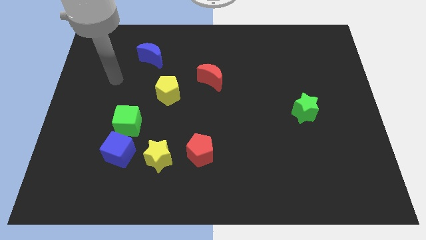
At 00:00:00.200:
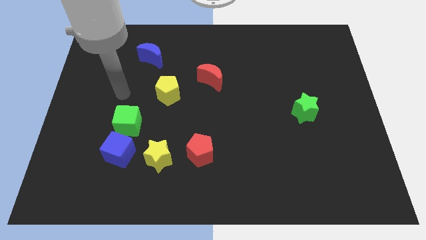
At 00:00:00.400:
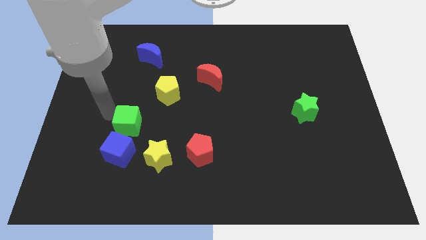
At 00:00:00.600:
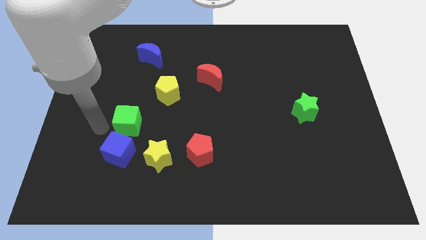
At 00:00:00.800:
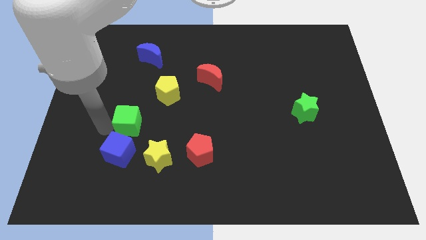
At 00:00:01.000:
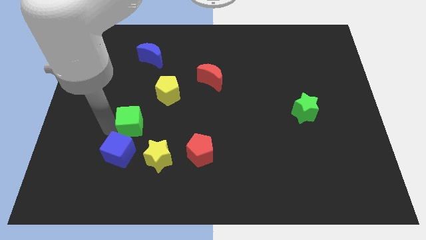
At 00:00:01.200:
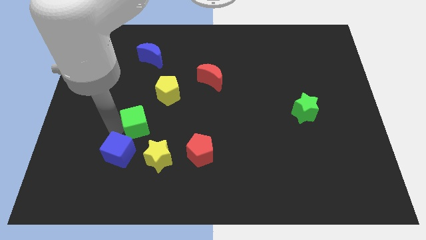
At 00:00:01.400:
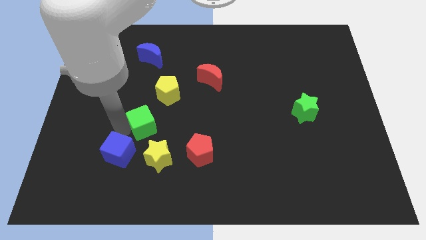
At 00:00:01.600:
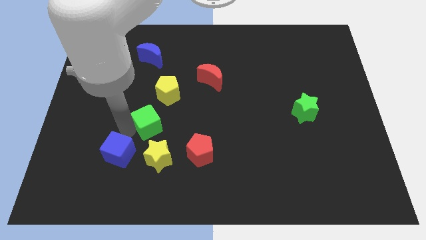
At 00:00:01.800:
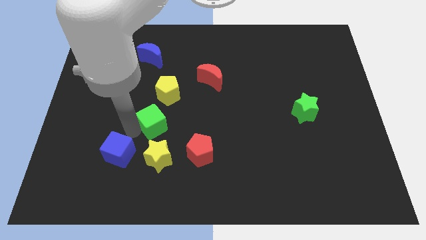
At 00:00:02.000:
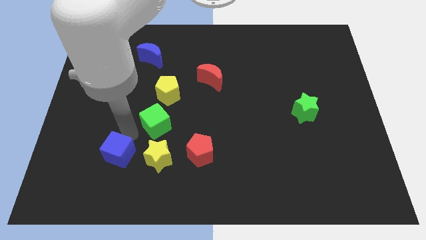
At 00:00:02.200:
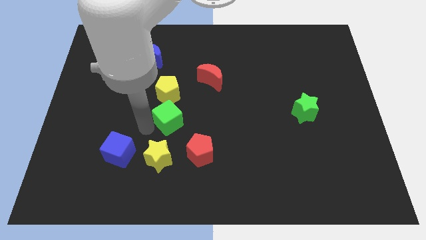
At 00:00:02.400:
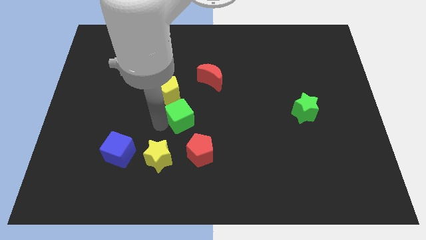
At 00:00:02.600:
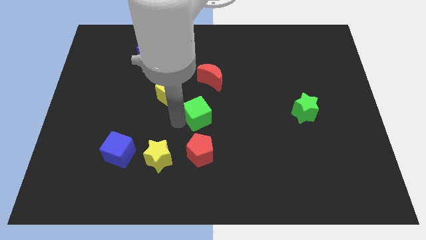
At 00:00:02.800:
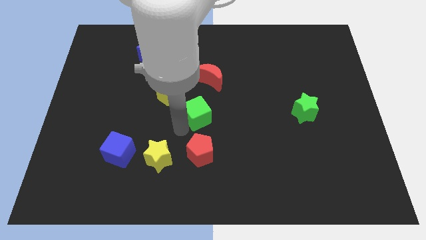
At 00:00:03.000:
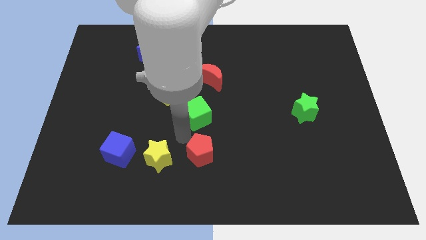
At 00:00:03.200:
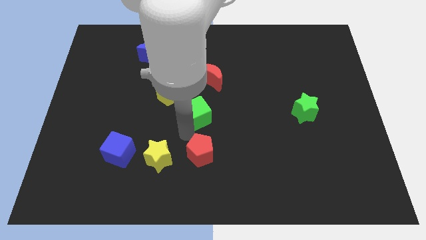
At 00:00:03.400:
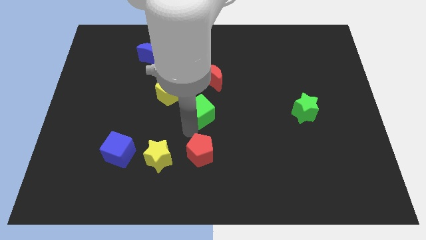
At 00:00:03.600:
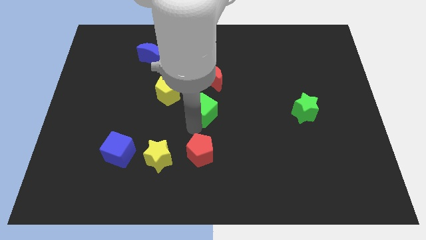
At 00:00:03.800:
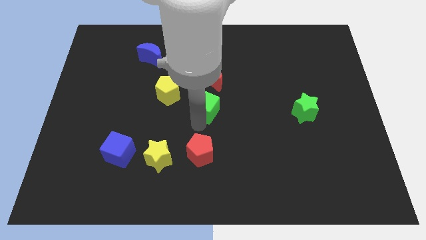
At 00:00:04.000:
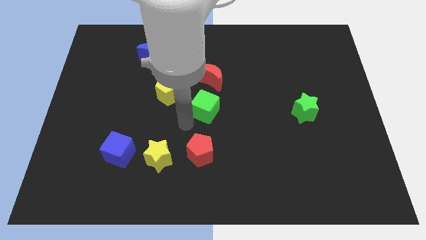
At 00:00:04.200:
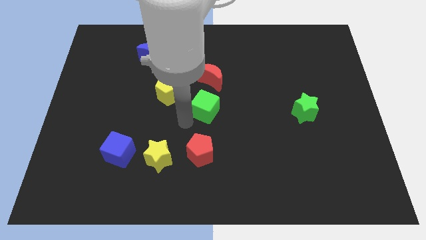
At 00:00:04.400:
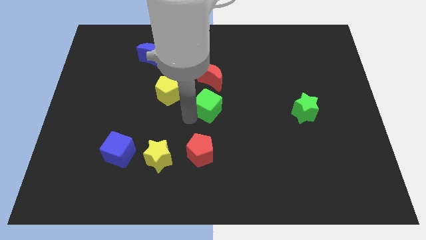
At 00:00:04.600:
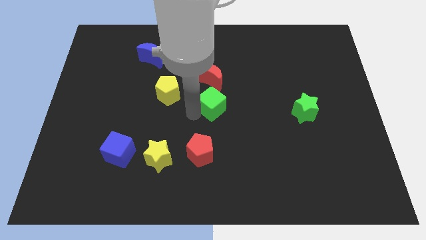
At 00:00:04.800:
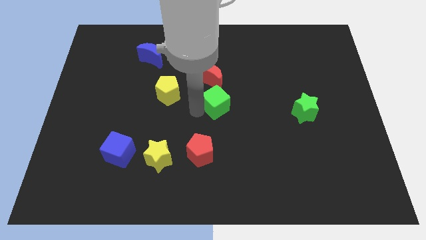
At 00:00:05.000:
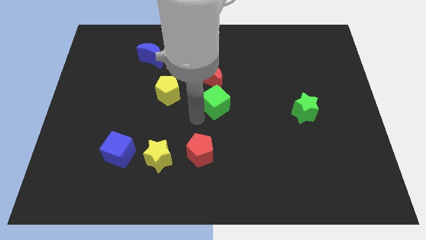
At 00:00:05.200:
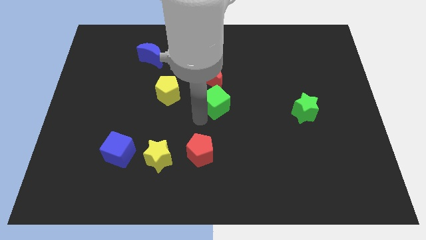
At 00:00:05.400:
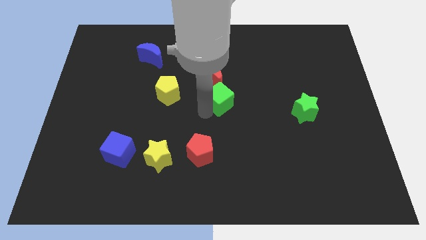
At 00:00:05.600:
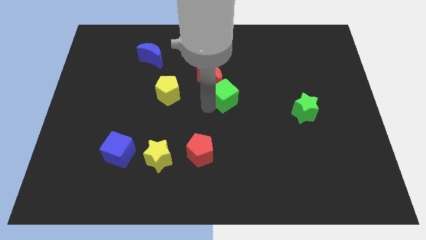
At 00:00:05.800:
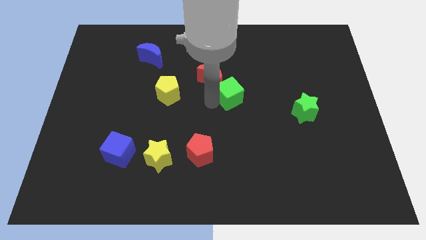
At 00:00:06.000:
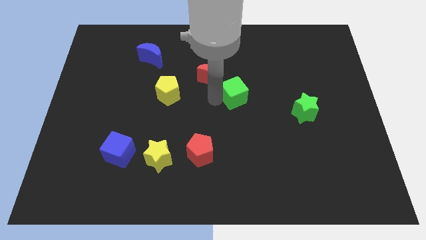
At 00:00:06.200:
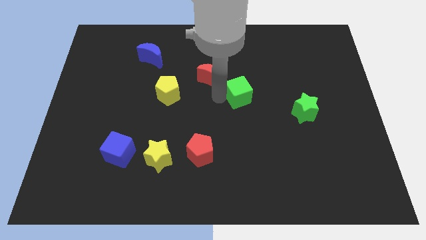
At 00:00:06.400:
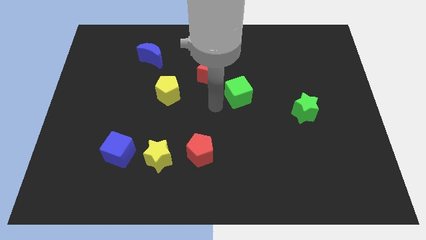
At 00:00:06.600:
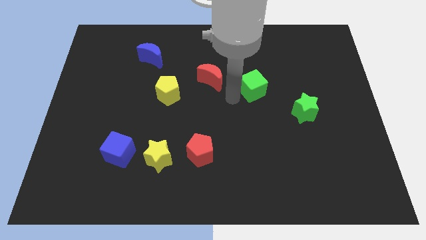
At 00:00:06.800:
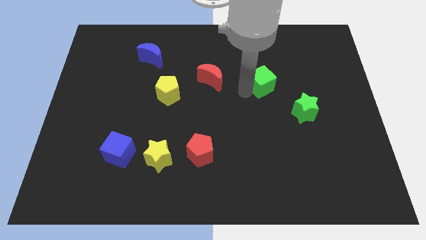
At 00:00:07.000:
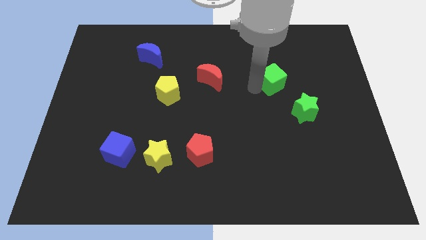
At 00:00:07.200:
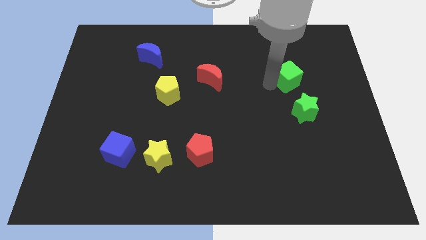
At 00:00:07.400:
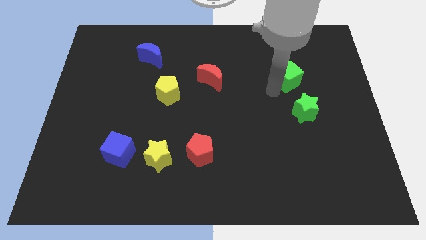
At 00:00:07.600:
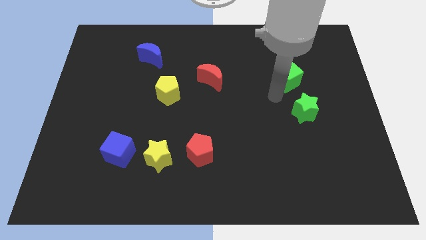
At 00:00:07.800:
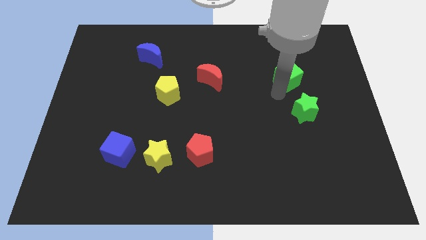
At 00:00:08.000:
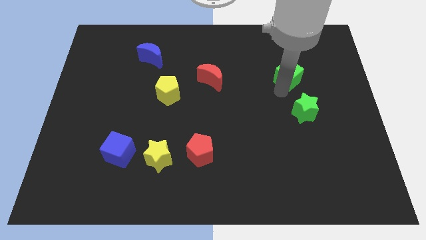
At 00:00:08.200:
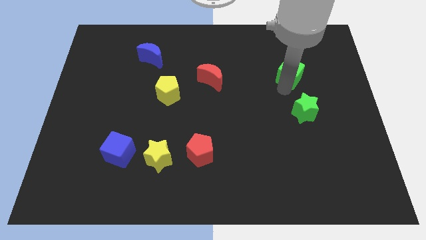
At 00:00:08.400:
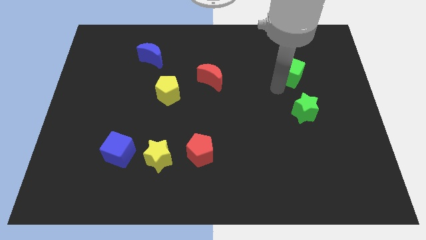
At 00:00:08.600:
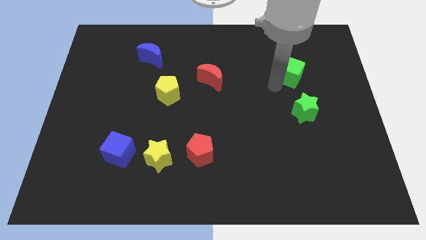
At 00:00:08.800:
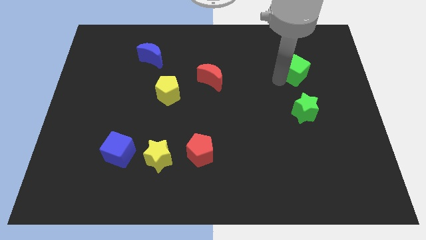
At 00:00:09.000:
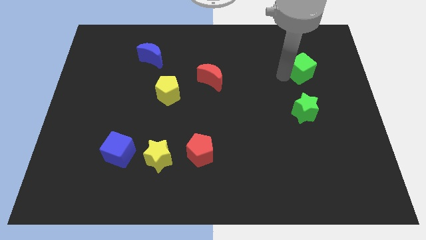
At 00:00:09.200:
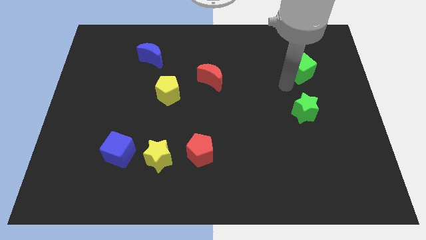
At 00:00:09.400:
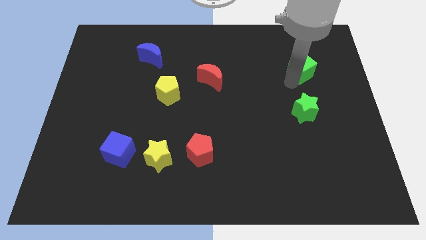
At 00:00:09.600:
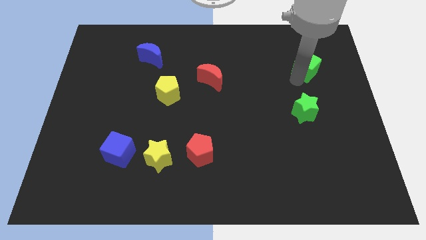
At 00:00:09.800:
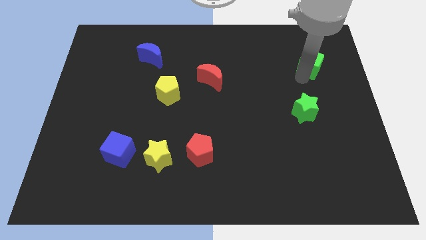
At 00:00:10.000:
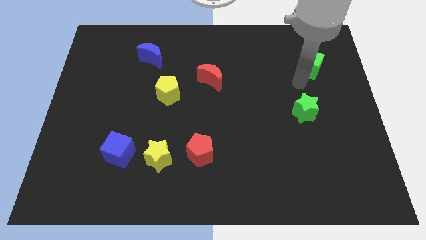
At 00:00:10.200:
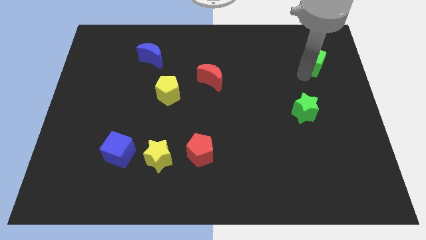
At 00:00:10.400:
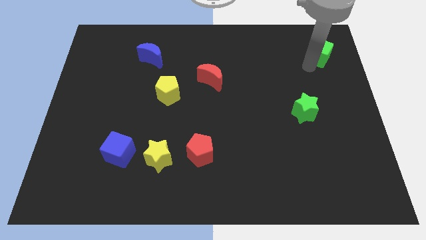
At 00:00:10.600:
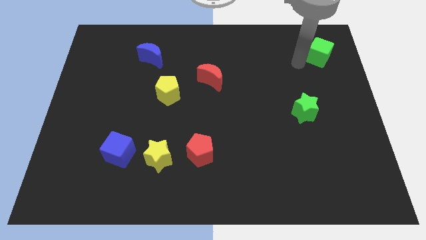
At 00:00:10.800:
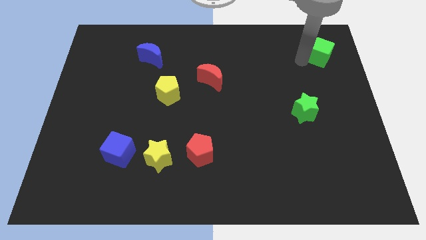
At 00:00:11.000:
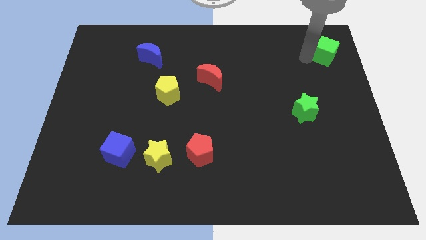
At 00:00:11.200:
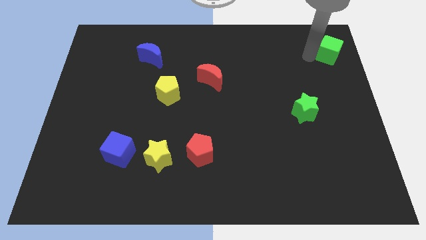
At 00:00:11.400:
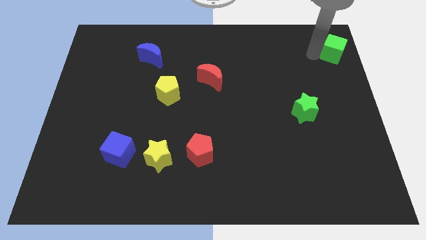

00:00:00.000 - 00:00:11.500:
push the green cube to the upper right corner
